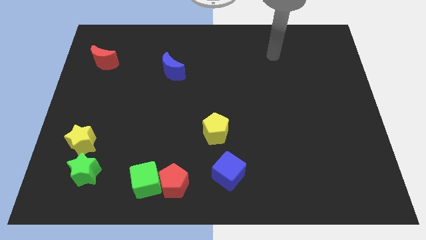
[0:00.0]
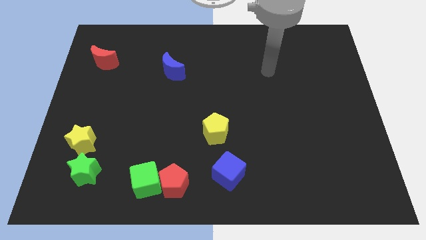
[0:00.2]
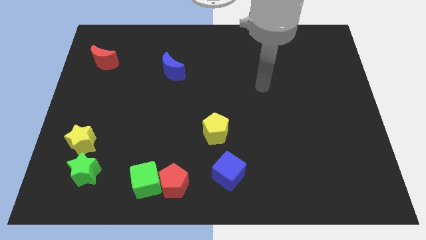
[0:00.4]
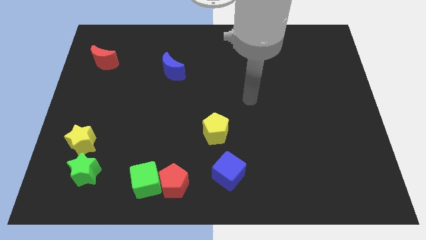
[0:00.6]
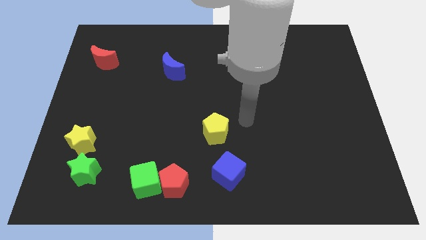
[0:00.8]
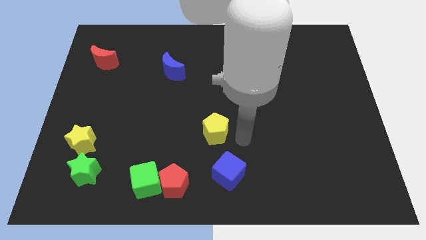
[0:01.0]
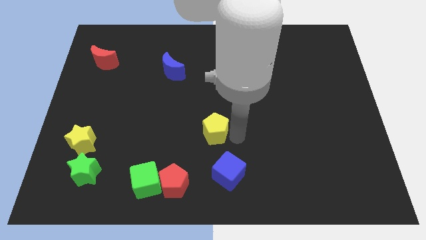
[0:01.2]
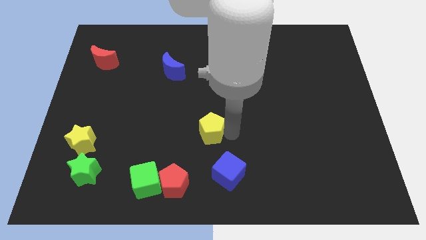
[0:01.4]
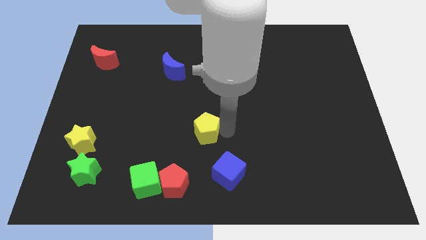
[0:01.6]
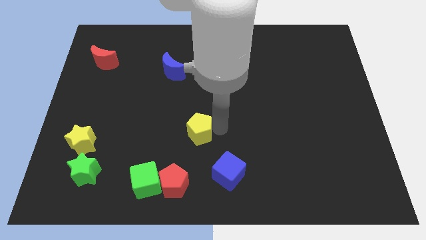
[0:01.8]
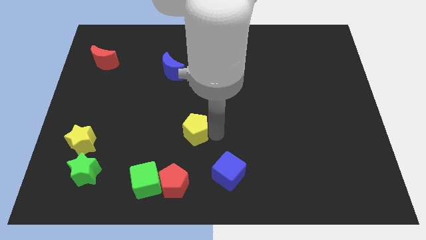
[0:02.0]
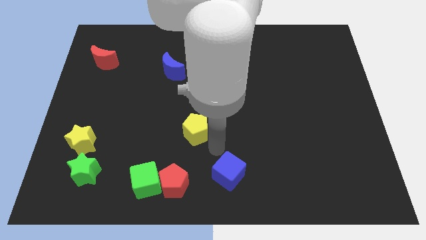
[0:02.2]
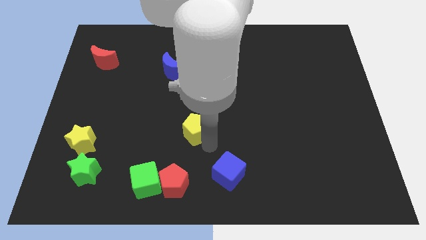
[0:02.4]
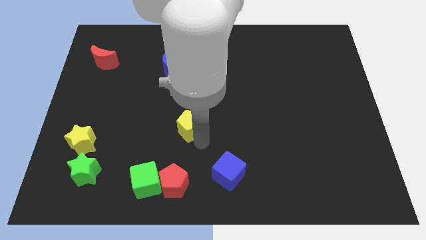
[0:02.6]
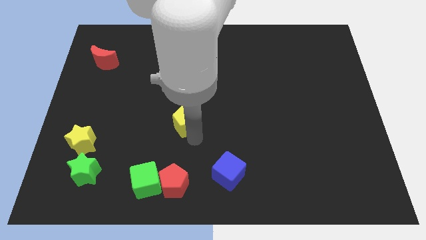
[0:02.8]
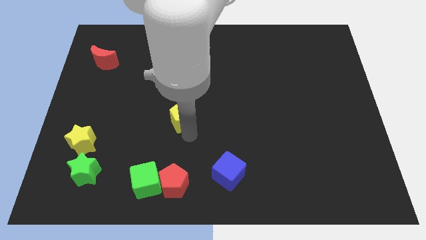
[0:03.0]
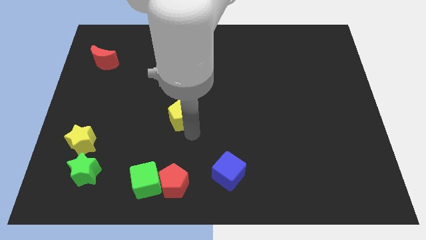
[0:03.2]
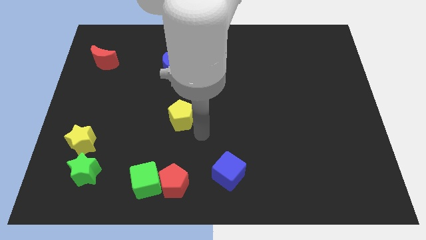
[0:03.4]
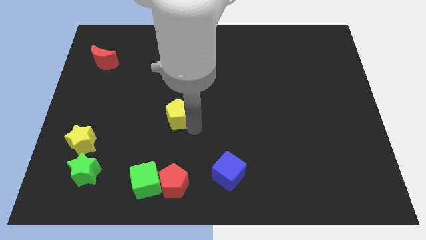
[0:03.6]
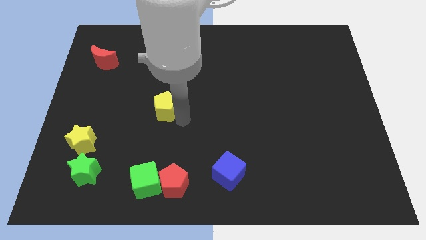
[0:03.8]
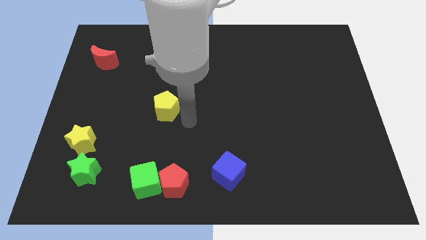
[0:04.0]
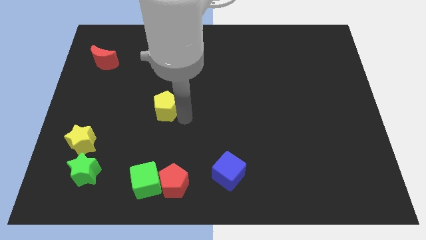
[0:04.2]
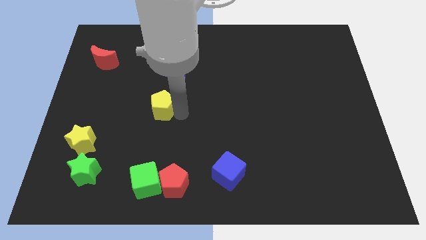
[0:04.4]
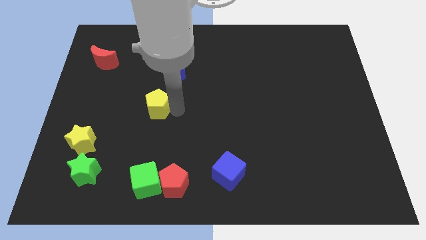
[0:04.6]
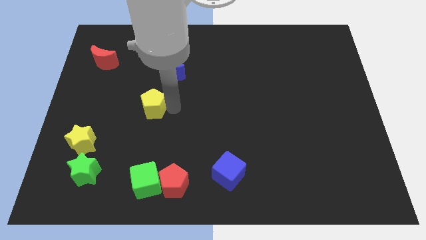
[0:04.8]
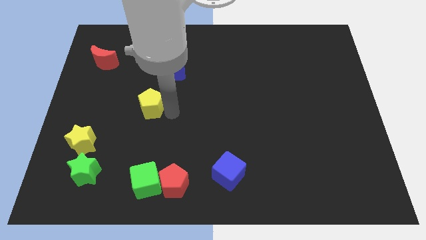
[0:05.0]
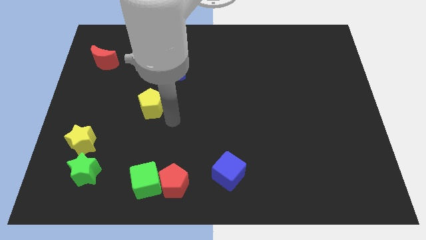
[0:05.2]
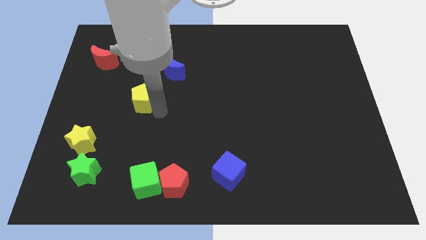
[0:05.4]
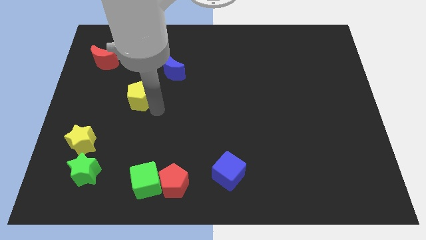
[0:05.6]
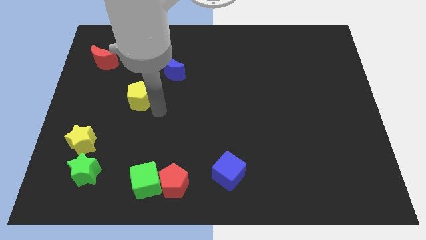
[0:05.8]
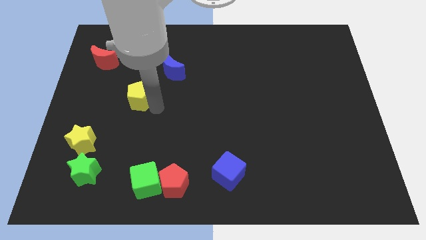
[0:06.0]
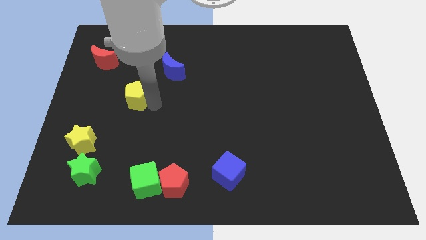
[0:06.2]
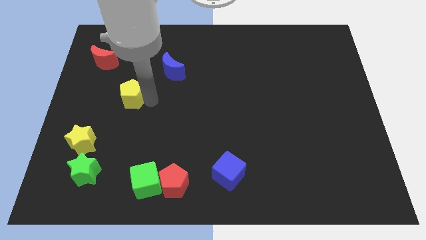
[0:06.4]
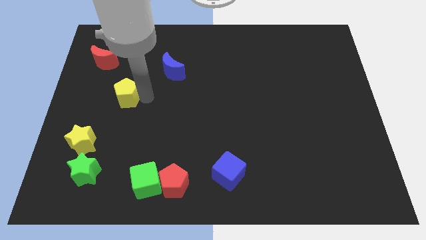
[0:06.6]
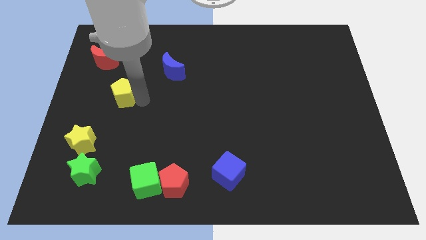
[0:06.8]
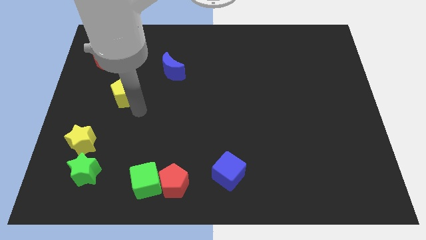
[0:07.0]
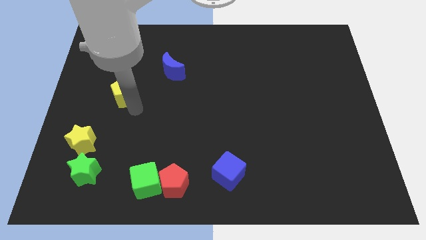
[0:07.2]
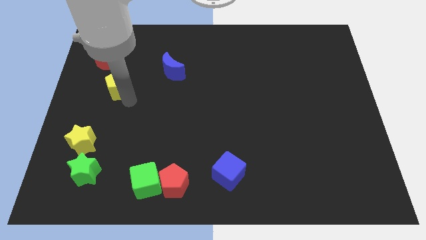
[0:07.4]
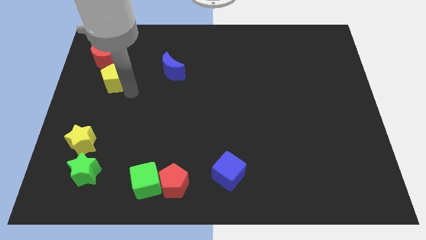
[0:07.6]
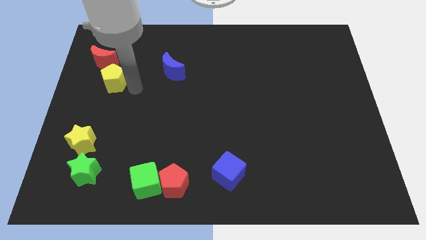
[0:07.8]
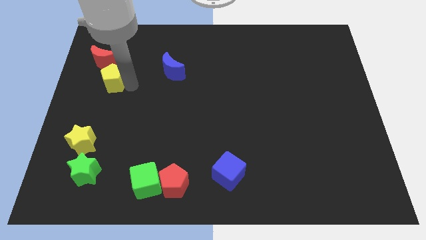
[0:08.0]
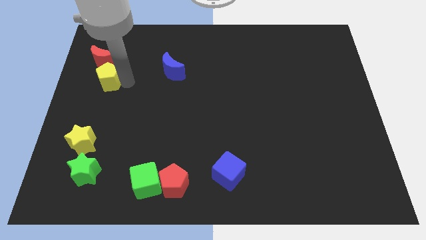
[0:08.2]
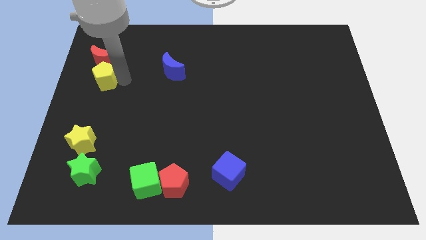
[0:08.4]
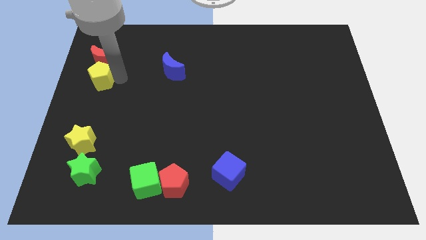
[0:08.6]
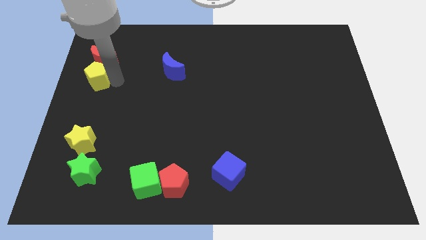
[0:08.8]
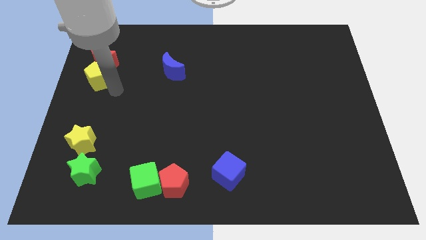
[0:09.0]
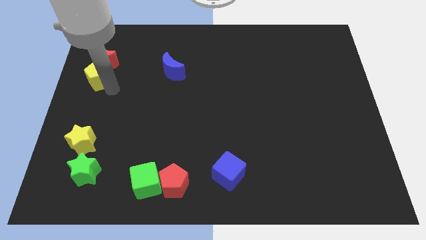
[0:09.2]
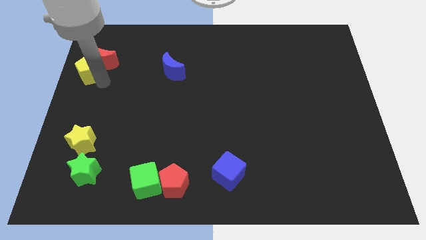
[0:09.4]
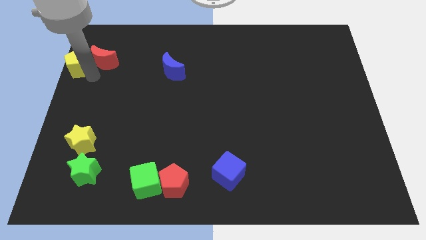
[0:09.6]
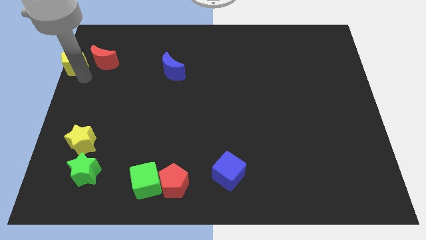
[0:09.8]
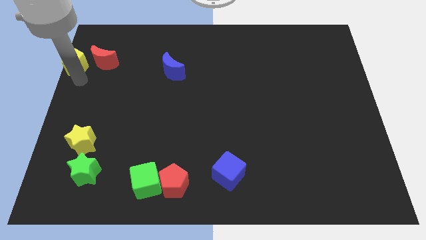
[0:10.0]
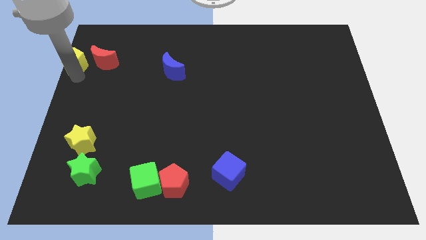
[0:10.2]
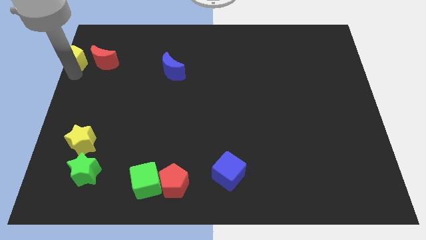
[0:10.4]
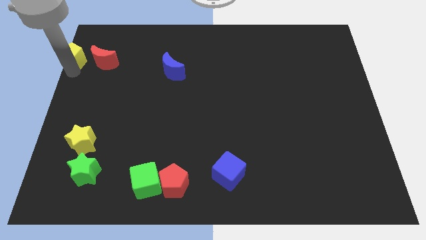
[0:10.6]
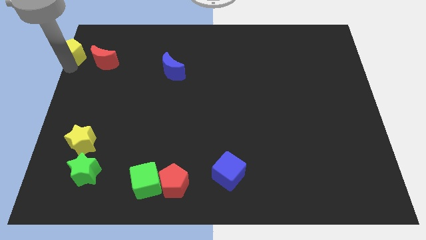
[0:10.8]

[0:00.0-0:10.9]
move the yellow pentagon to the upper left corner

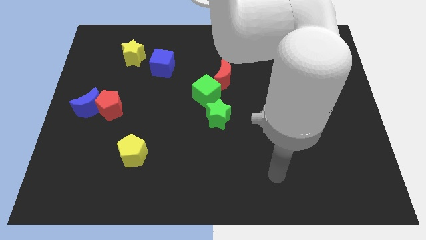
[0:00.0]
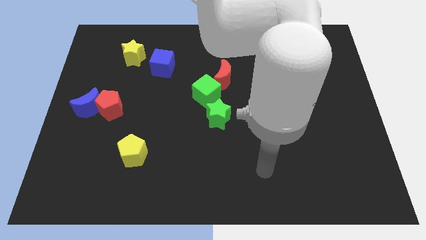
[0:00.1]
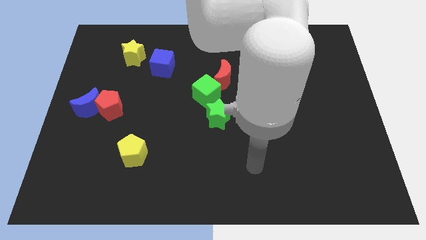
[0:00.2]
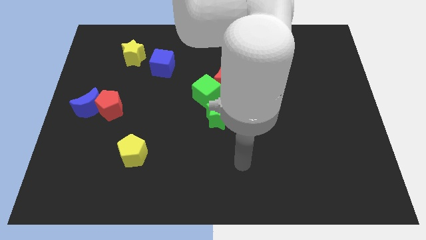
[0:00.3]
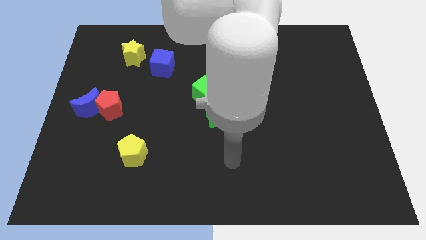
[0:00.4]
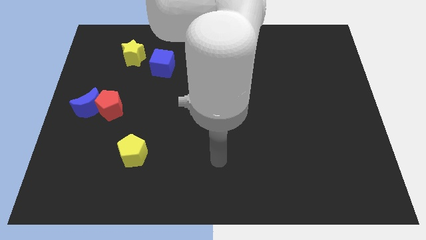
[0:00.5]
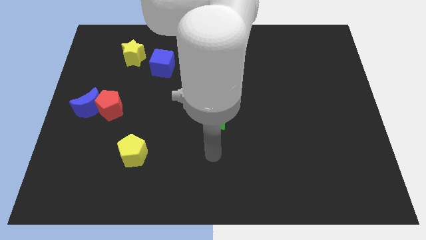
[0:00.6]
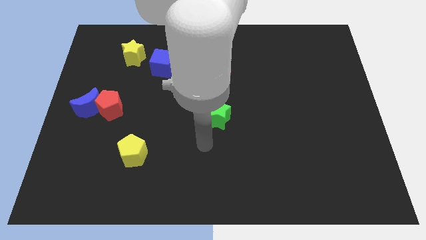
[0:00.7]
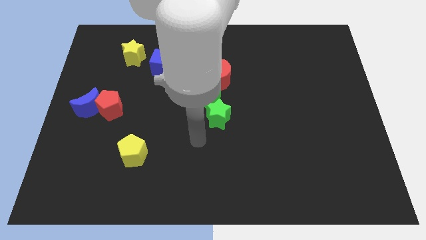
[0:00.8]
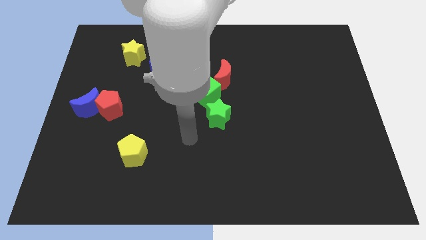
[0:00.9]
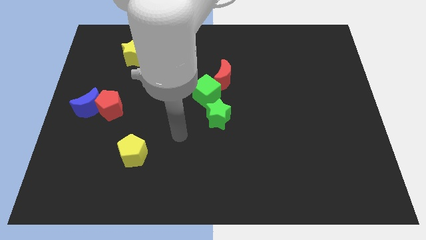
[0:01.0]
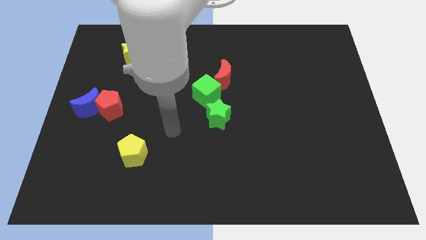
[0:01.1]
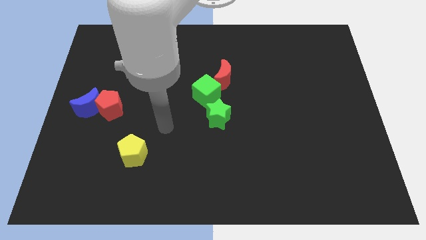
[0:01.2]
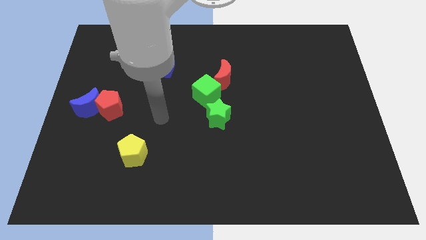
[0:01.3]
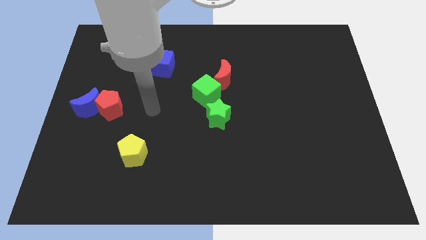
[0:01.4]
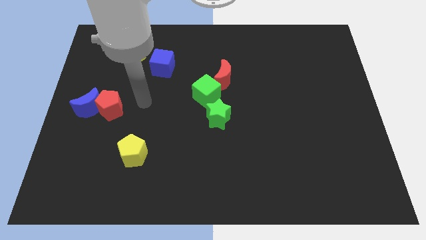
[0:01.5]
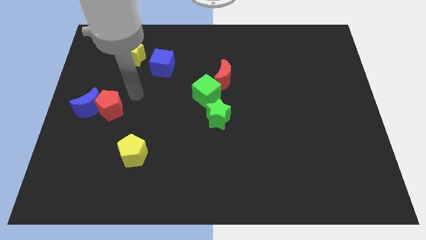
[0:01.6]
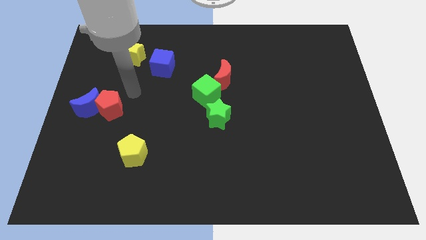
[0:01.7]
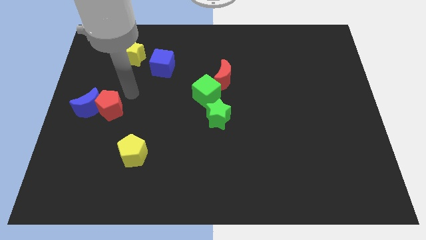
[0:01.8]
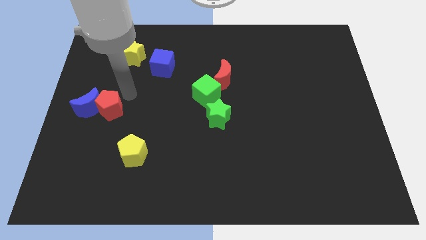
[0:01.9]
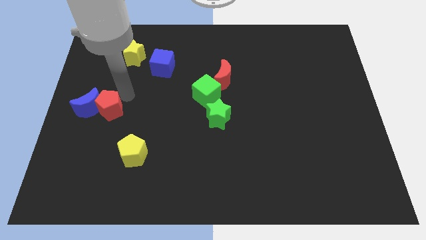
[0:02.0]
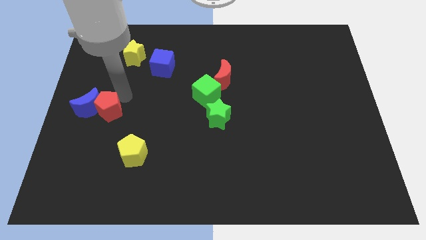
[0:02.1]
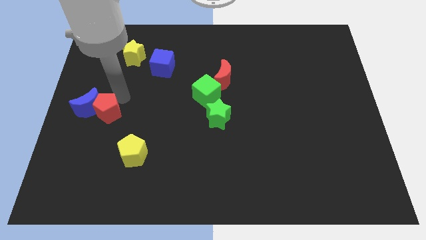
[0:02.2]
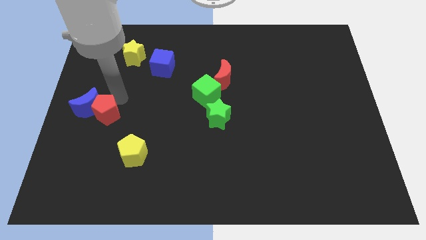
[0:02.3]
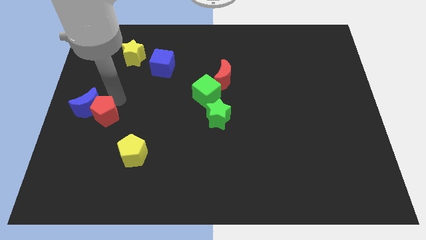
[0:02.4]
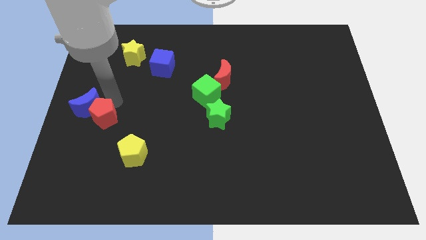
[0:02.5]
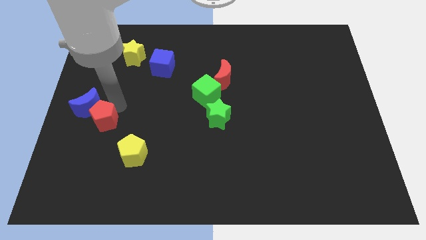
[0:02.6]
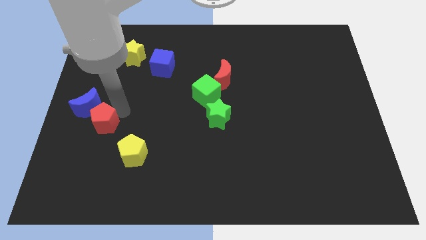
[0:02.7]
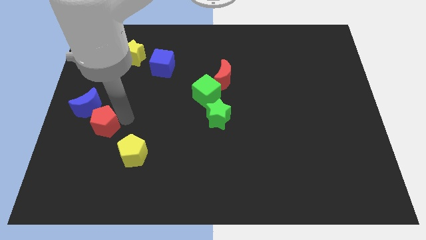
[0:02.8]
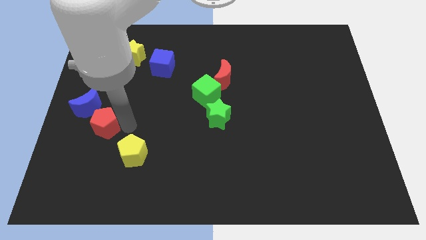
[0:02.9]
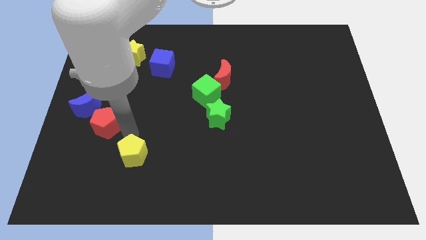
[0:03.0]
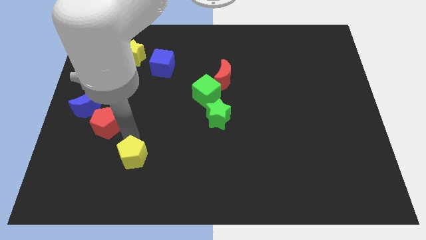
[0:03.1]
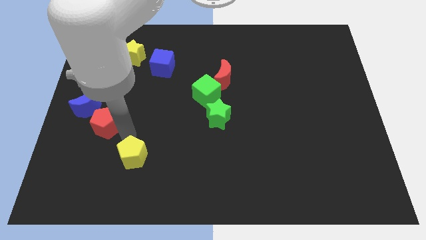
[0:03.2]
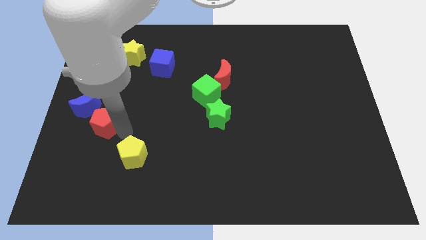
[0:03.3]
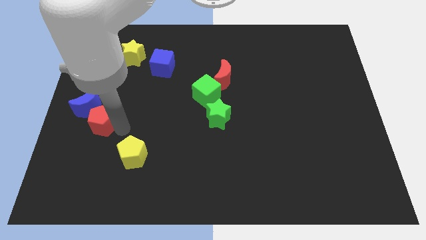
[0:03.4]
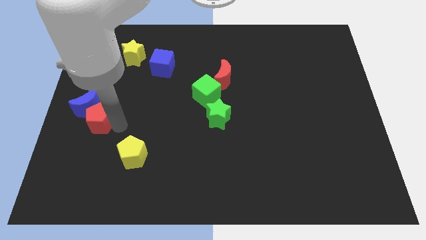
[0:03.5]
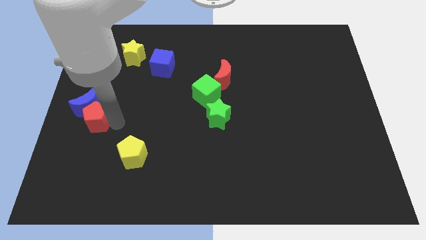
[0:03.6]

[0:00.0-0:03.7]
put the red pentagon to the left side of the board
